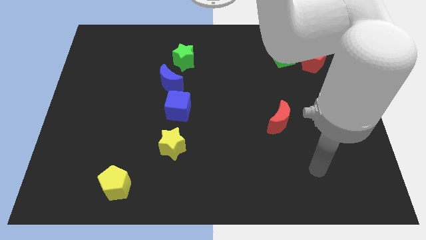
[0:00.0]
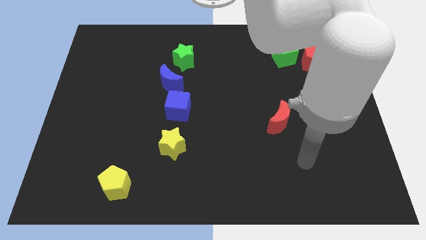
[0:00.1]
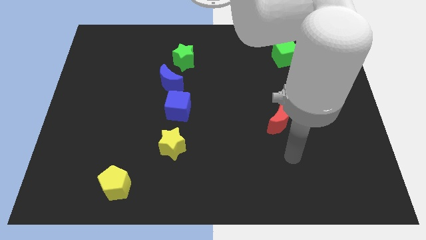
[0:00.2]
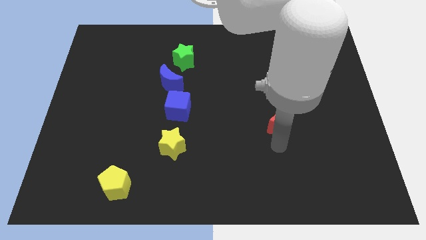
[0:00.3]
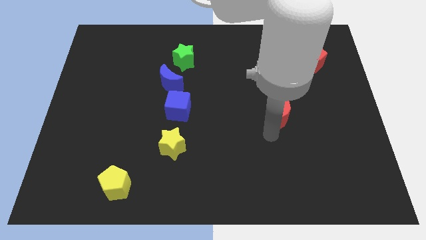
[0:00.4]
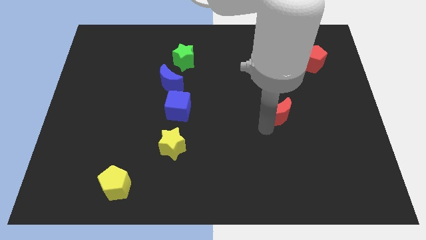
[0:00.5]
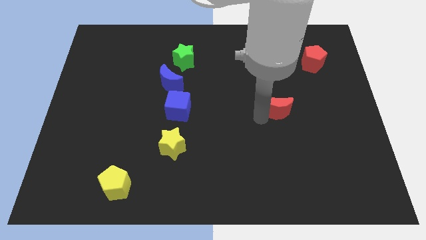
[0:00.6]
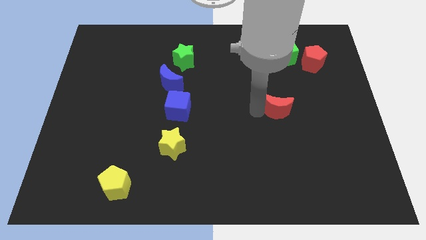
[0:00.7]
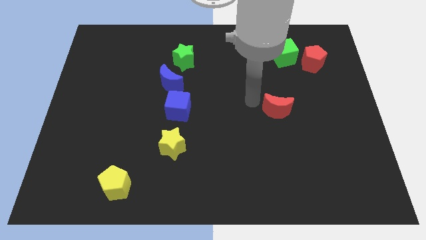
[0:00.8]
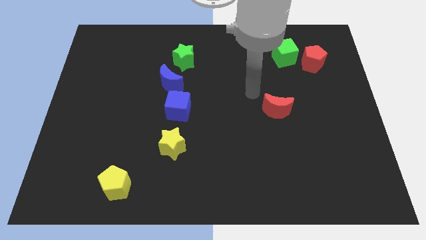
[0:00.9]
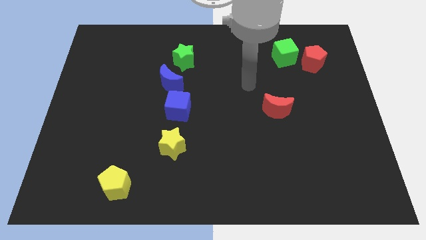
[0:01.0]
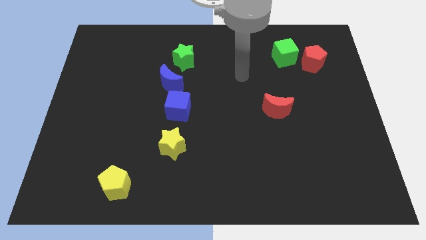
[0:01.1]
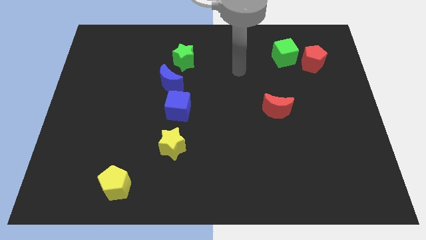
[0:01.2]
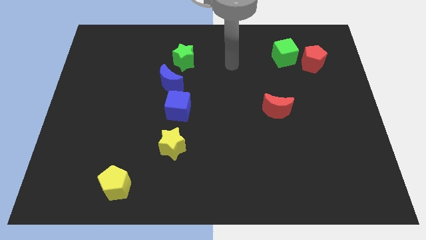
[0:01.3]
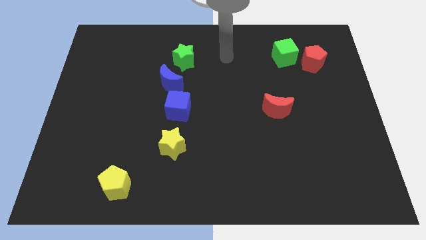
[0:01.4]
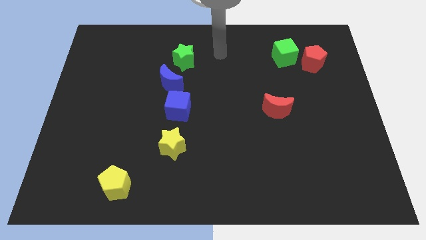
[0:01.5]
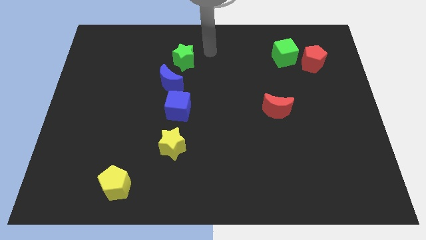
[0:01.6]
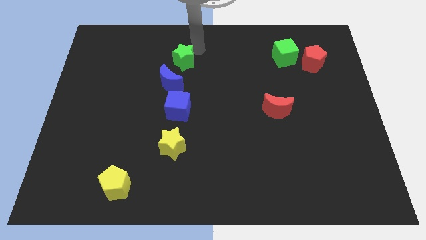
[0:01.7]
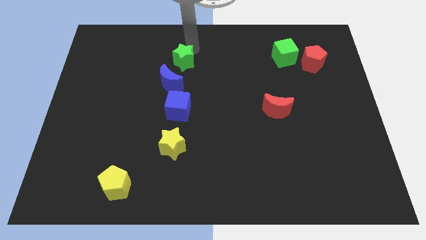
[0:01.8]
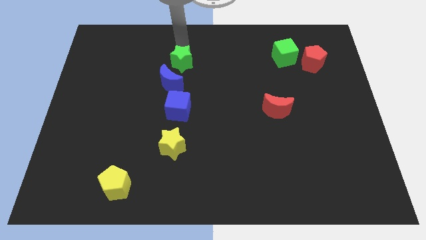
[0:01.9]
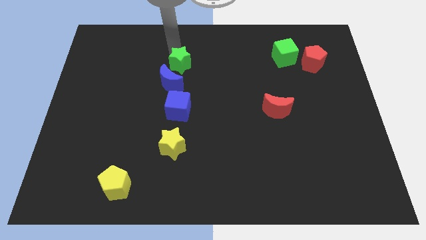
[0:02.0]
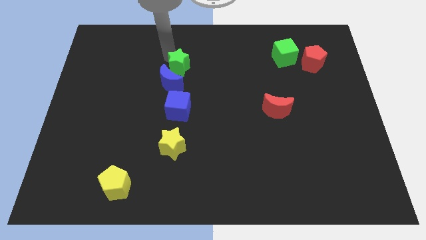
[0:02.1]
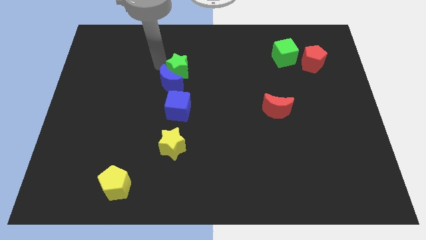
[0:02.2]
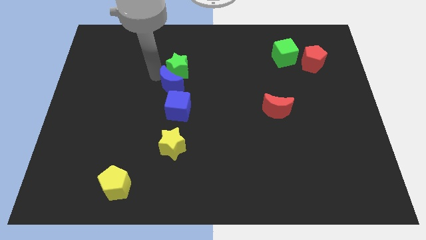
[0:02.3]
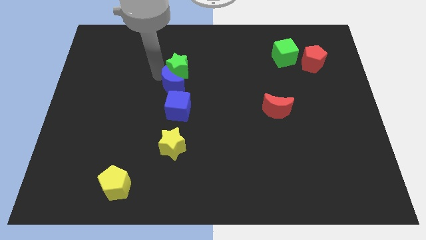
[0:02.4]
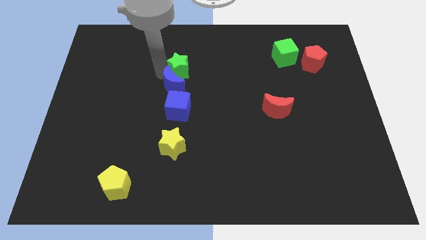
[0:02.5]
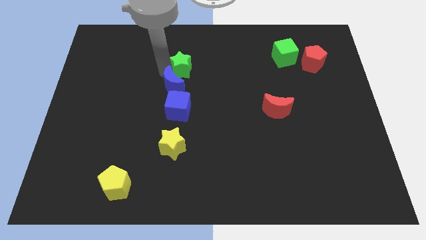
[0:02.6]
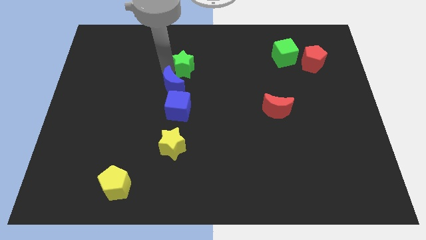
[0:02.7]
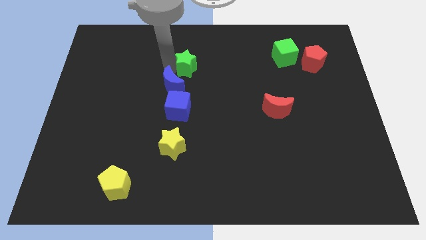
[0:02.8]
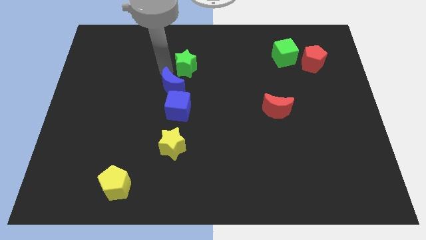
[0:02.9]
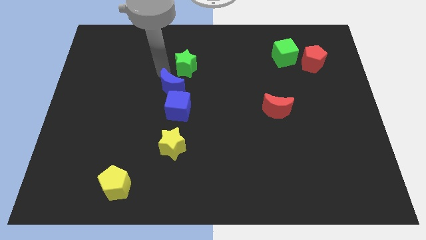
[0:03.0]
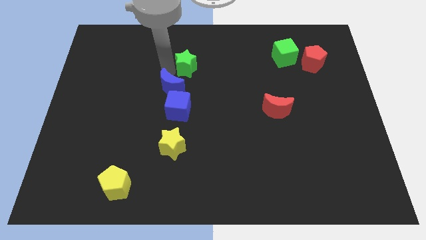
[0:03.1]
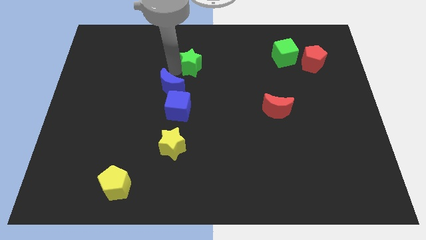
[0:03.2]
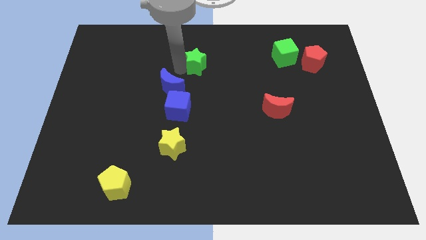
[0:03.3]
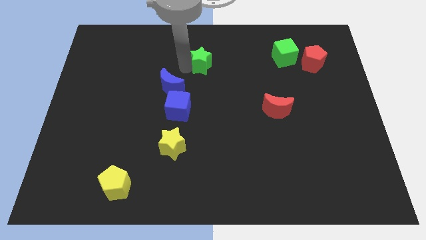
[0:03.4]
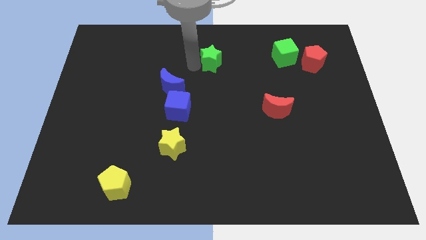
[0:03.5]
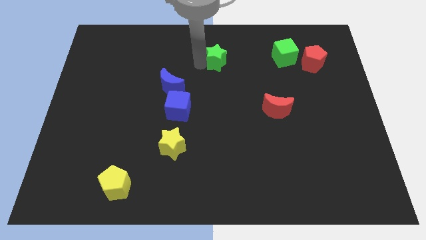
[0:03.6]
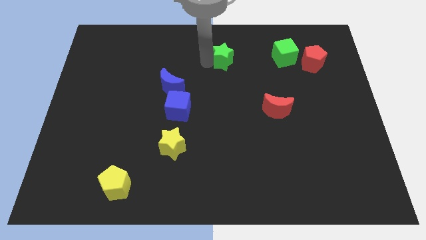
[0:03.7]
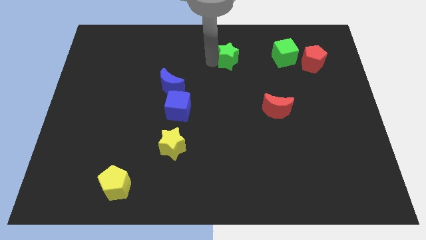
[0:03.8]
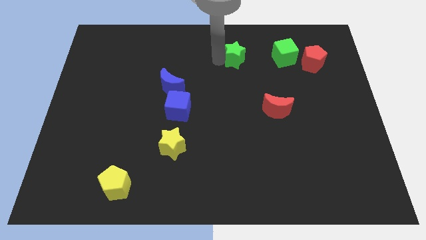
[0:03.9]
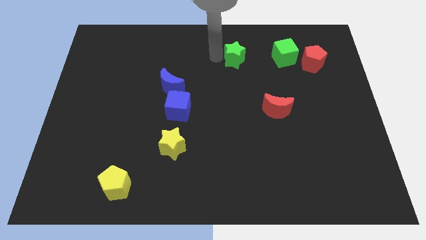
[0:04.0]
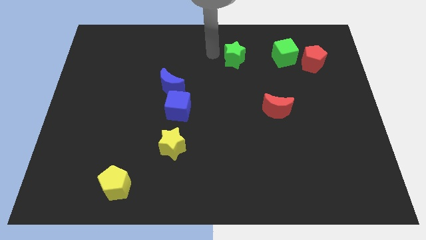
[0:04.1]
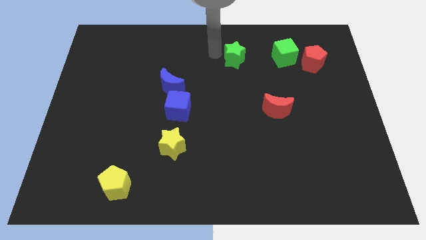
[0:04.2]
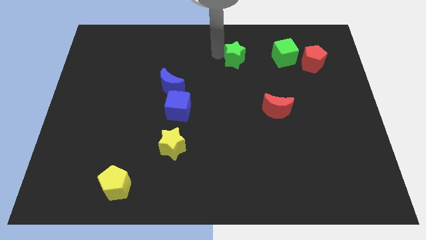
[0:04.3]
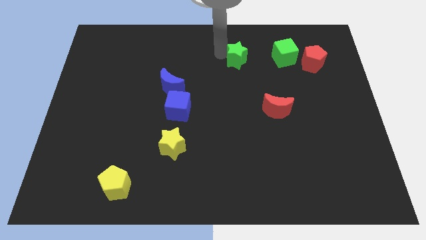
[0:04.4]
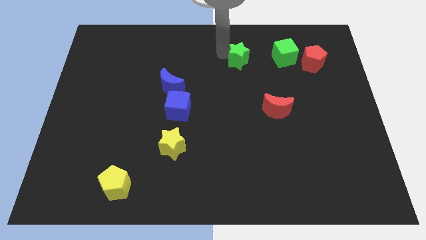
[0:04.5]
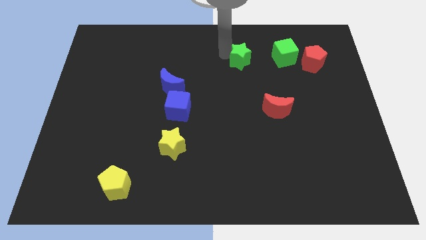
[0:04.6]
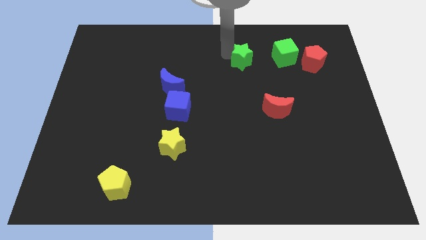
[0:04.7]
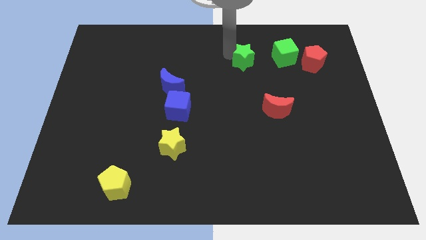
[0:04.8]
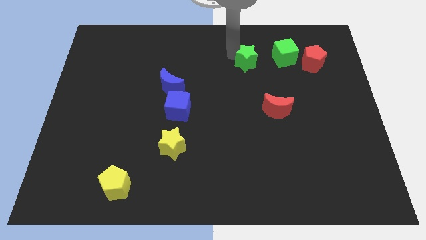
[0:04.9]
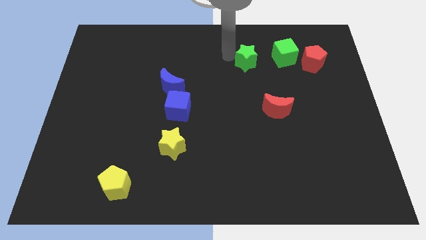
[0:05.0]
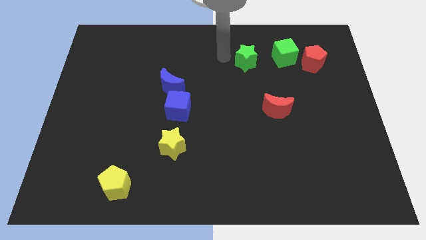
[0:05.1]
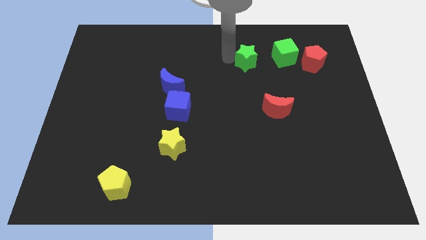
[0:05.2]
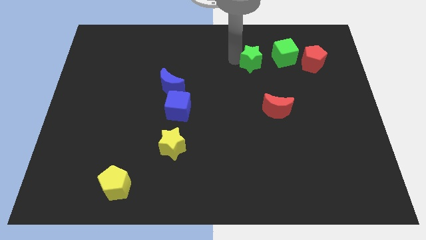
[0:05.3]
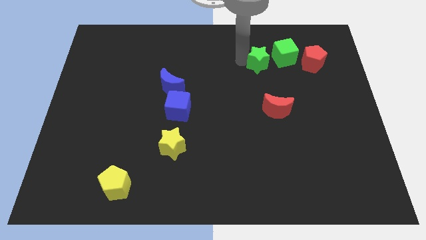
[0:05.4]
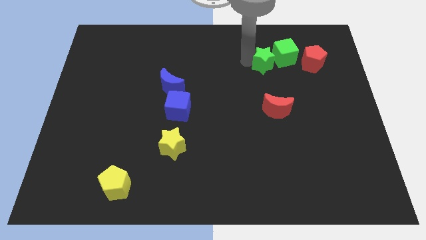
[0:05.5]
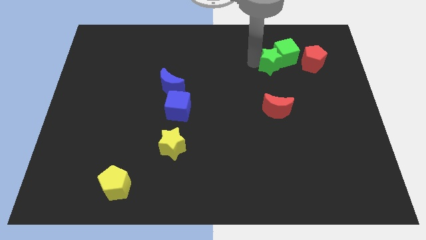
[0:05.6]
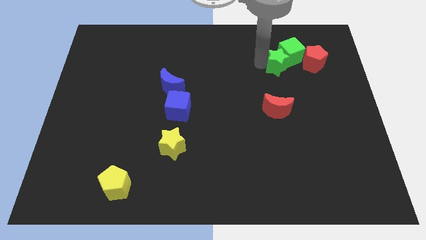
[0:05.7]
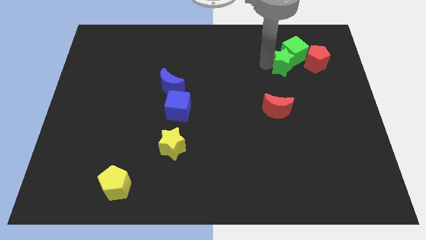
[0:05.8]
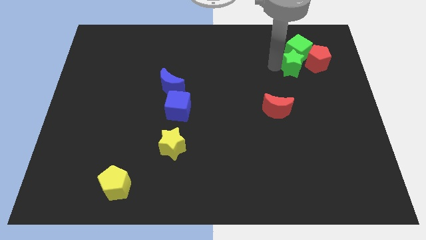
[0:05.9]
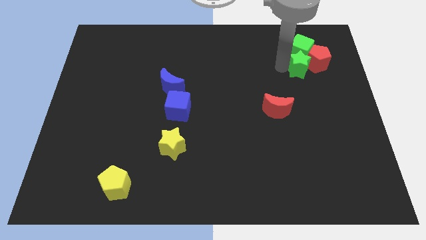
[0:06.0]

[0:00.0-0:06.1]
push the green star close to the red pentagon

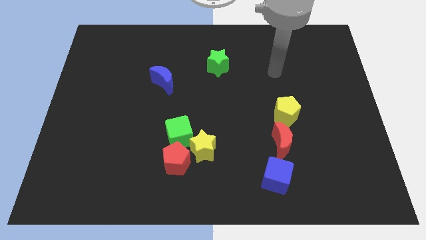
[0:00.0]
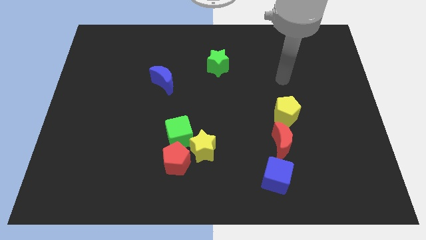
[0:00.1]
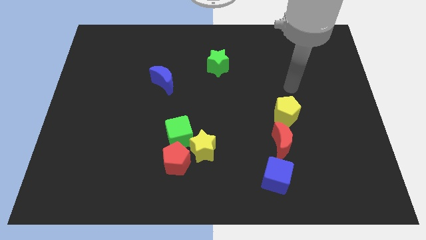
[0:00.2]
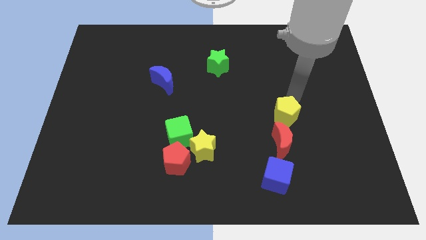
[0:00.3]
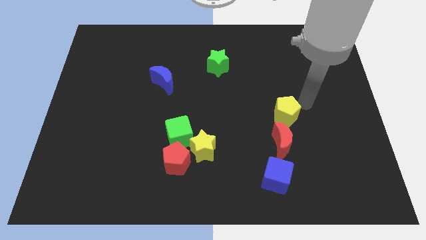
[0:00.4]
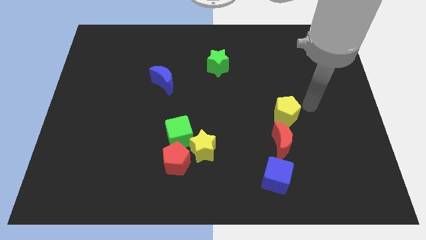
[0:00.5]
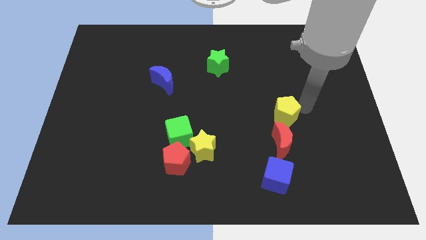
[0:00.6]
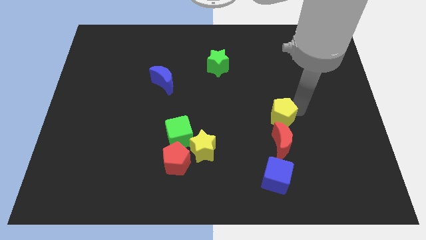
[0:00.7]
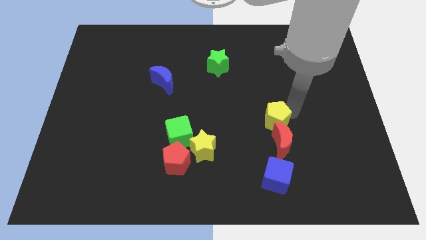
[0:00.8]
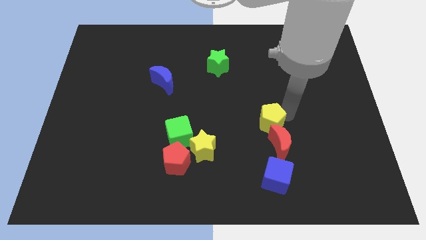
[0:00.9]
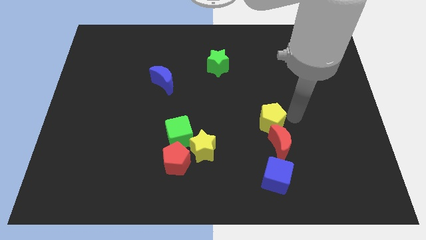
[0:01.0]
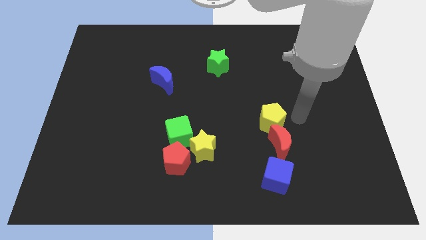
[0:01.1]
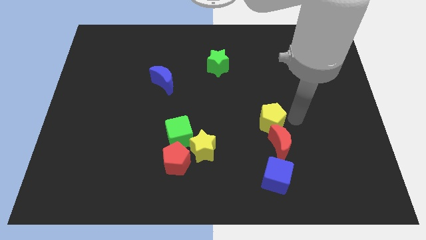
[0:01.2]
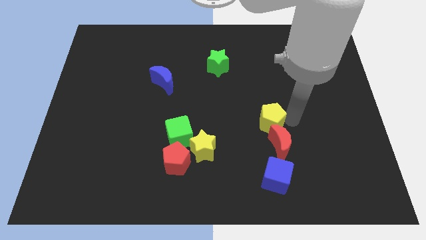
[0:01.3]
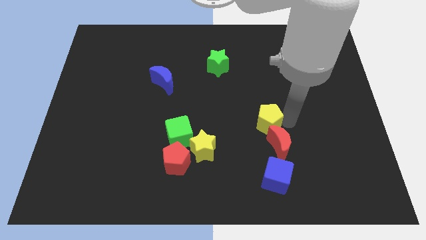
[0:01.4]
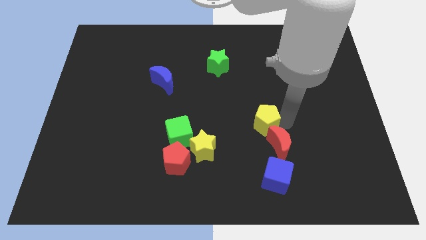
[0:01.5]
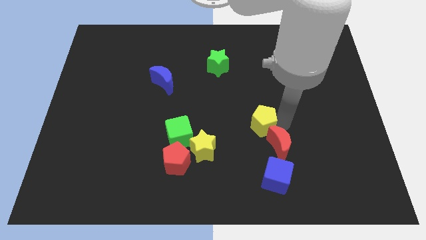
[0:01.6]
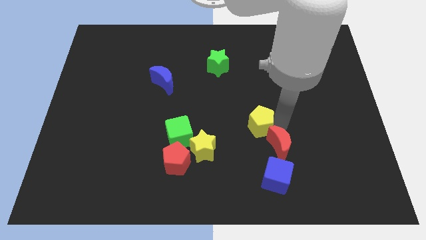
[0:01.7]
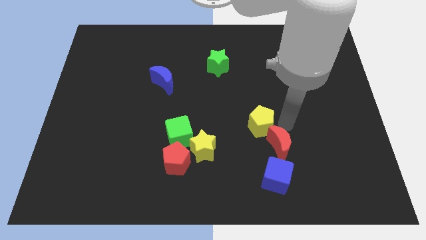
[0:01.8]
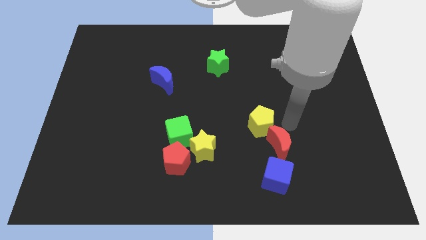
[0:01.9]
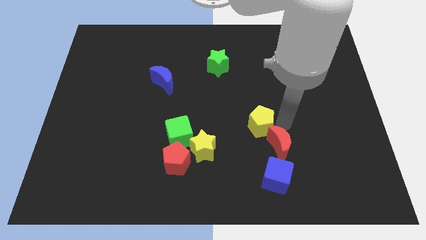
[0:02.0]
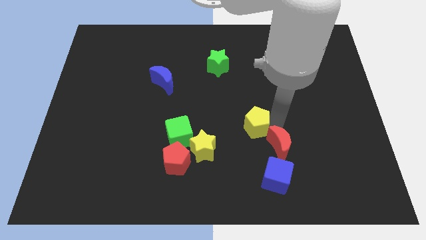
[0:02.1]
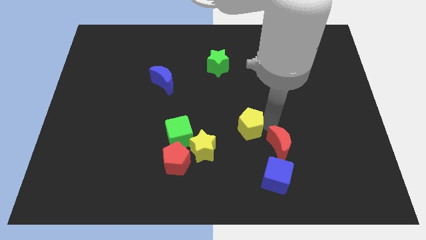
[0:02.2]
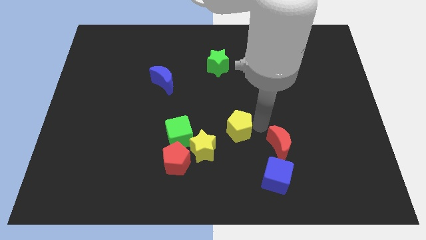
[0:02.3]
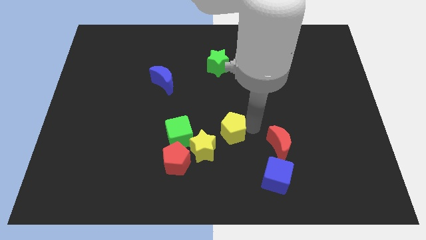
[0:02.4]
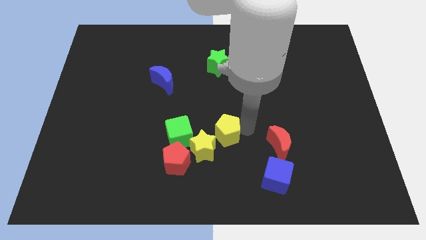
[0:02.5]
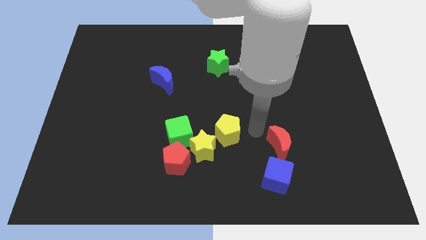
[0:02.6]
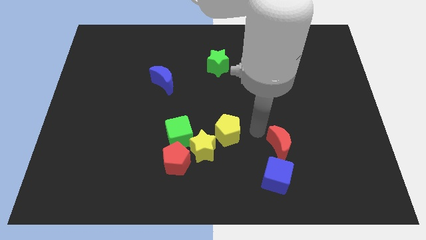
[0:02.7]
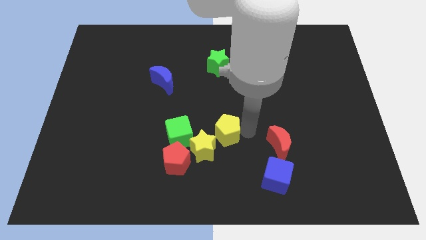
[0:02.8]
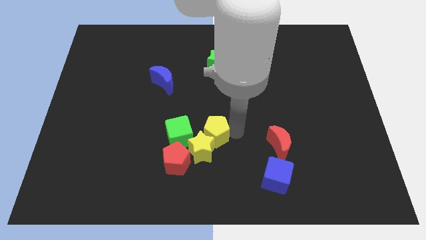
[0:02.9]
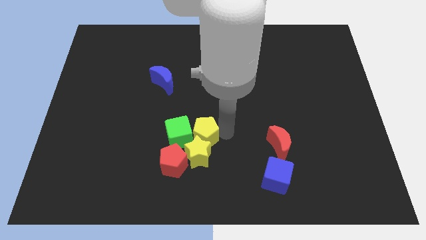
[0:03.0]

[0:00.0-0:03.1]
push the yellow pentagon towards the green cube
